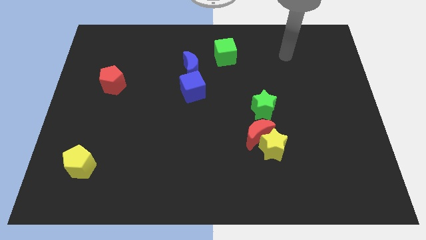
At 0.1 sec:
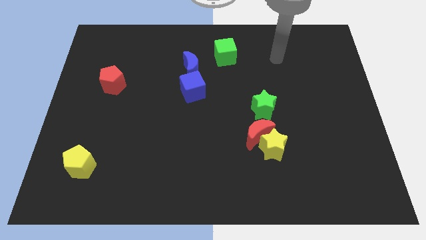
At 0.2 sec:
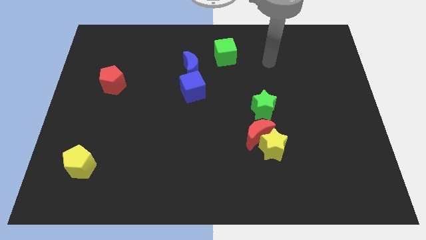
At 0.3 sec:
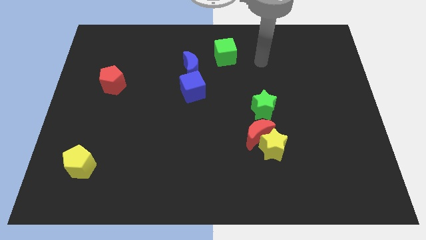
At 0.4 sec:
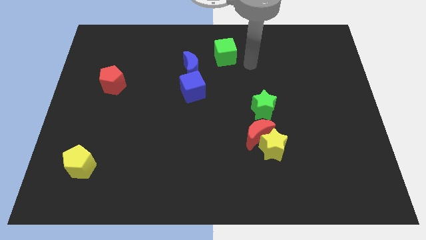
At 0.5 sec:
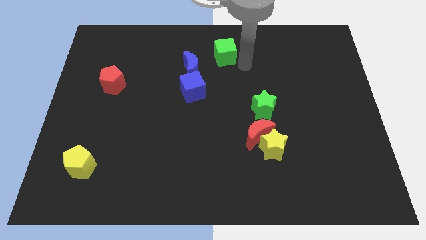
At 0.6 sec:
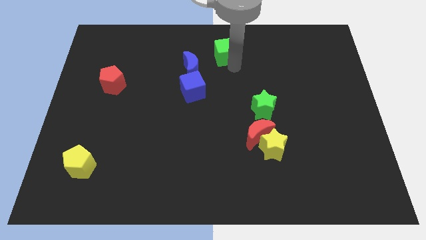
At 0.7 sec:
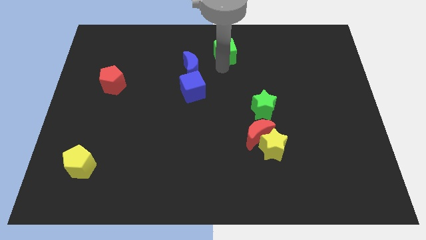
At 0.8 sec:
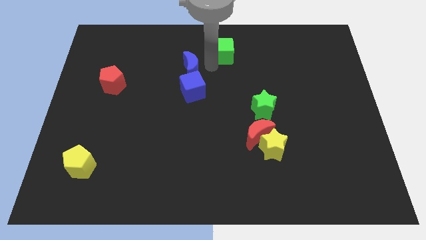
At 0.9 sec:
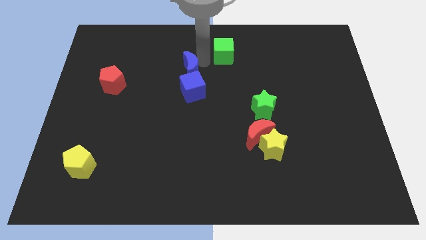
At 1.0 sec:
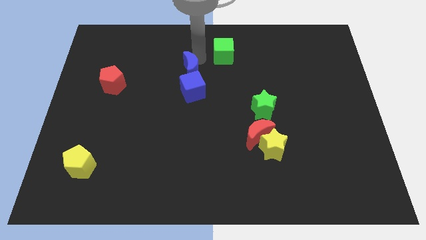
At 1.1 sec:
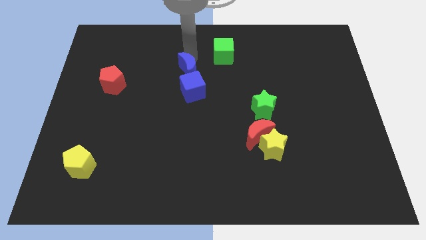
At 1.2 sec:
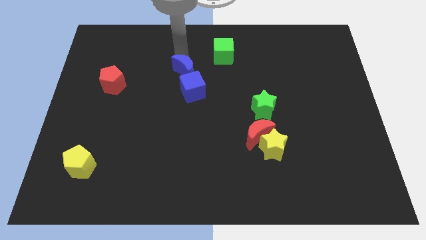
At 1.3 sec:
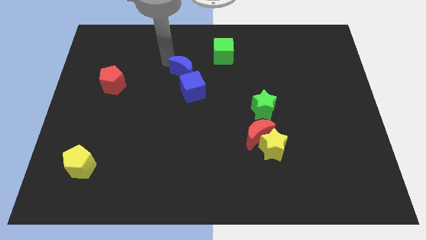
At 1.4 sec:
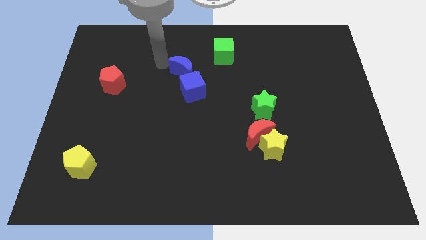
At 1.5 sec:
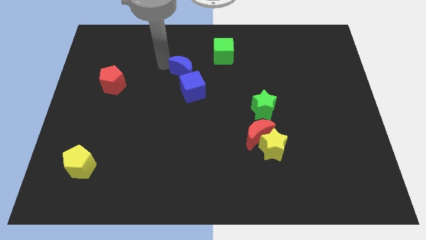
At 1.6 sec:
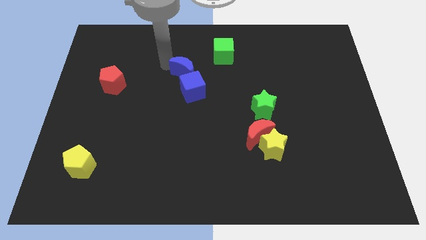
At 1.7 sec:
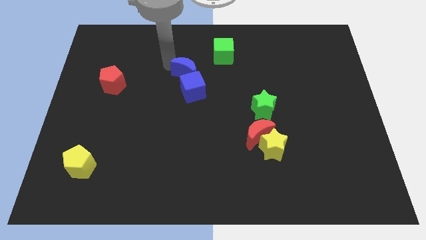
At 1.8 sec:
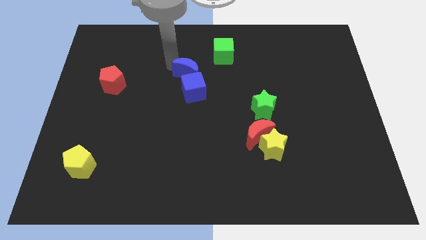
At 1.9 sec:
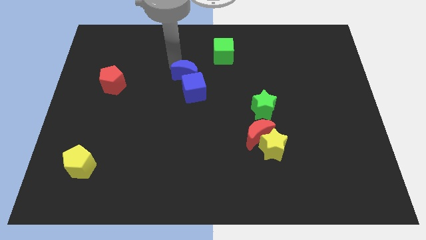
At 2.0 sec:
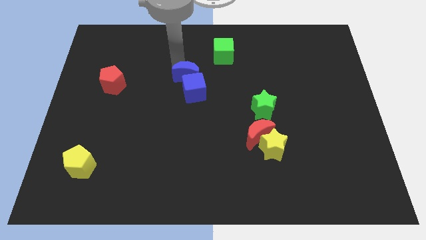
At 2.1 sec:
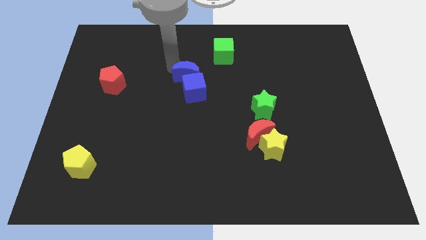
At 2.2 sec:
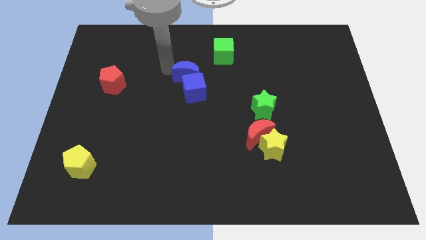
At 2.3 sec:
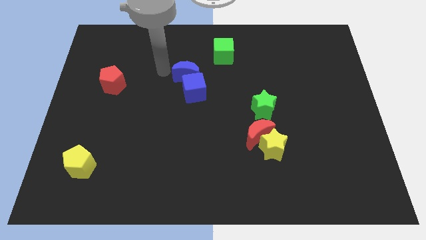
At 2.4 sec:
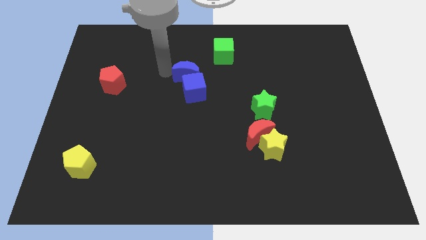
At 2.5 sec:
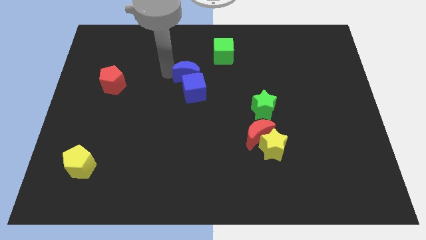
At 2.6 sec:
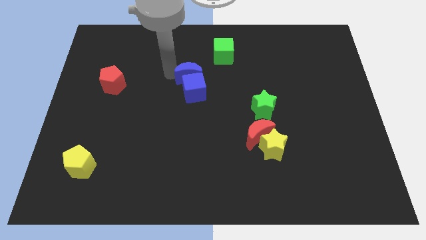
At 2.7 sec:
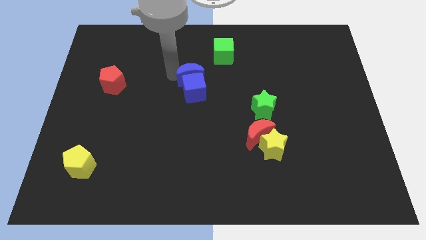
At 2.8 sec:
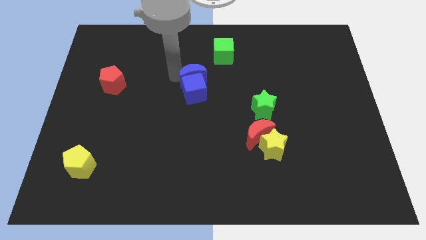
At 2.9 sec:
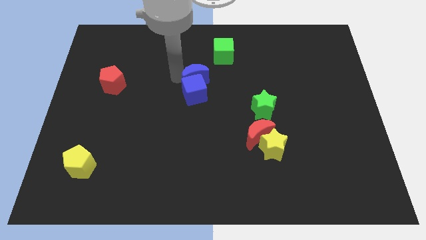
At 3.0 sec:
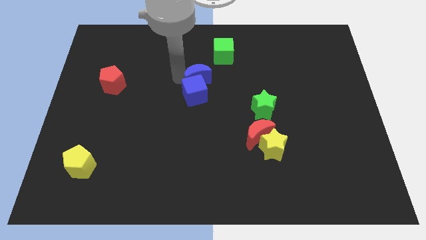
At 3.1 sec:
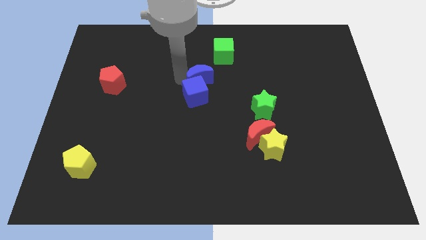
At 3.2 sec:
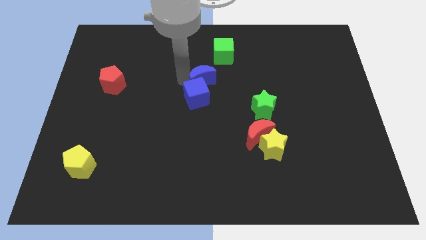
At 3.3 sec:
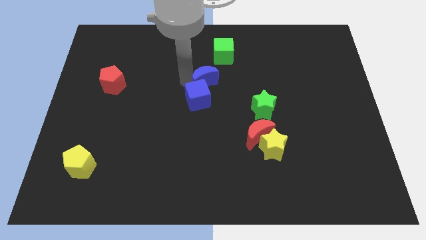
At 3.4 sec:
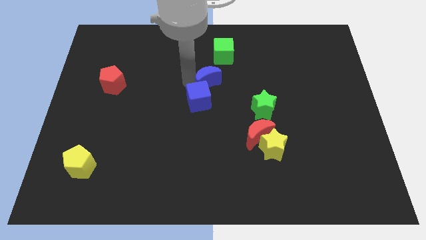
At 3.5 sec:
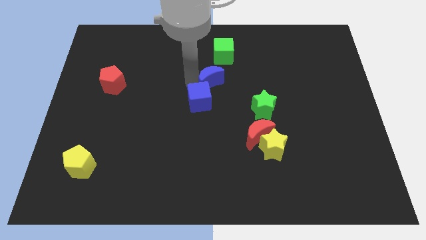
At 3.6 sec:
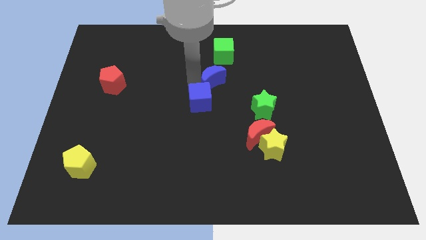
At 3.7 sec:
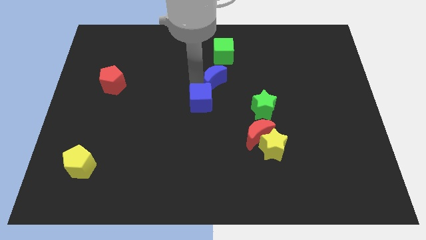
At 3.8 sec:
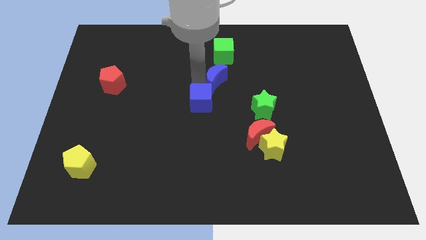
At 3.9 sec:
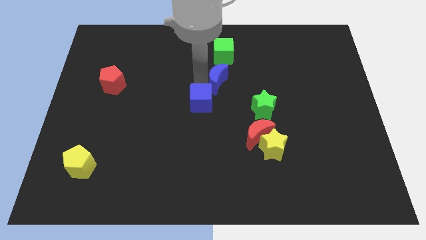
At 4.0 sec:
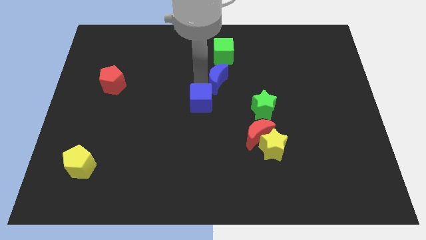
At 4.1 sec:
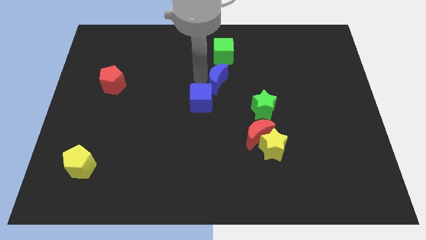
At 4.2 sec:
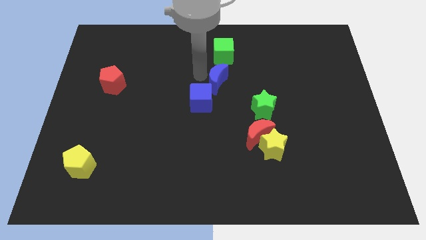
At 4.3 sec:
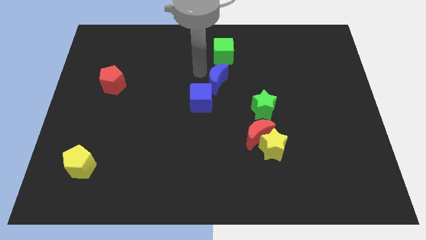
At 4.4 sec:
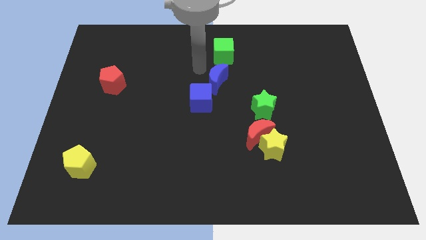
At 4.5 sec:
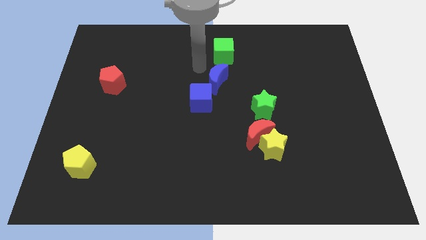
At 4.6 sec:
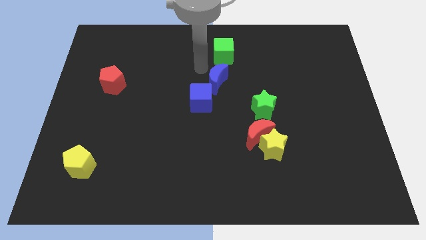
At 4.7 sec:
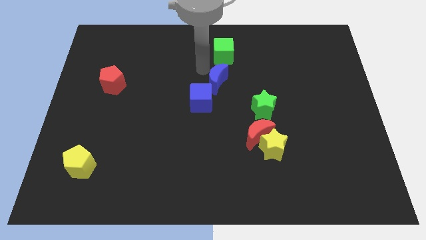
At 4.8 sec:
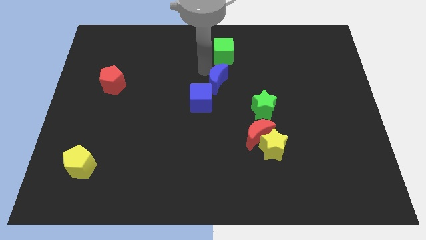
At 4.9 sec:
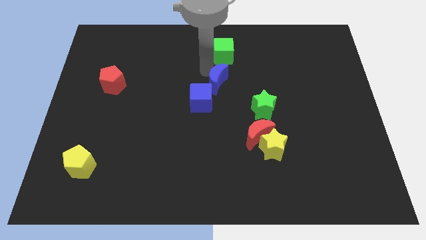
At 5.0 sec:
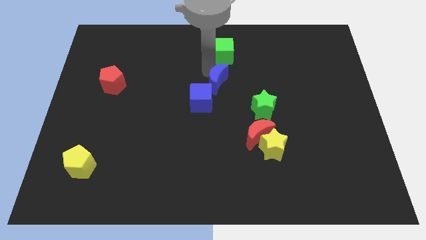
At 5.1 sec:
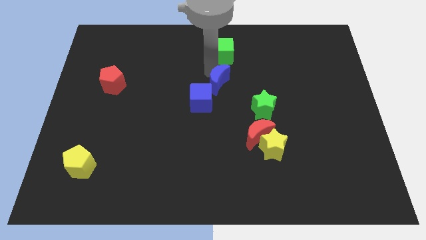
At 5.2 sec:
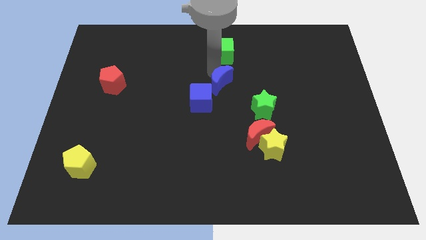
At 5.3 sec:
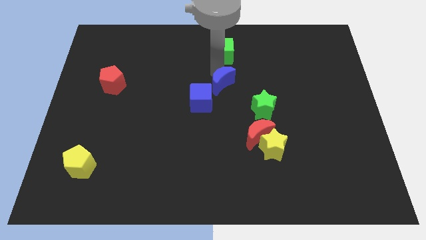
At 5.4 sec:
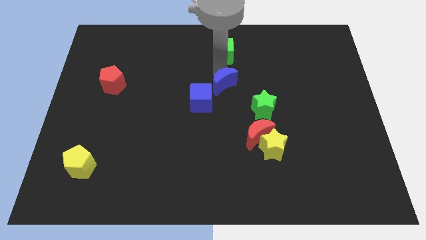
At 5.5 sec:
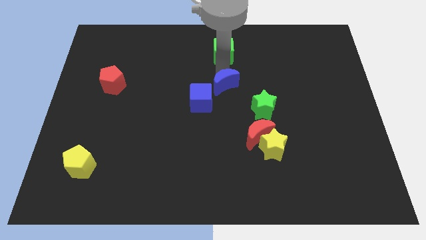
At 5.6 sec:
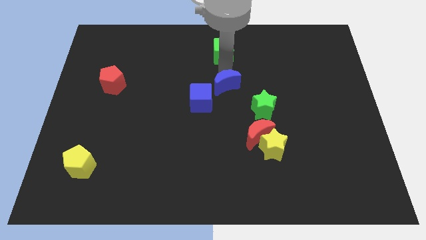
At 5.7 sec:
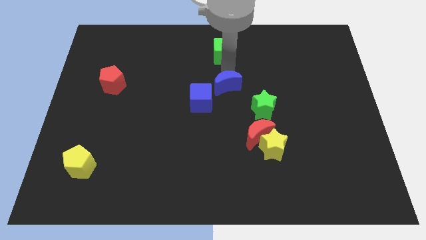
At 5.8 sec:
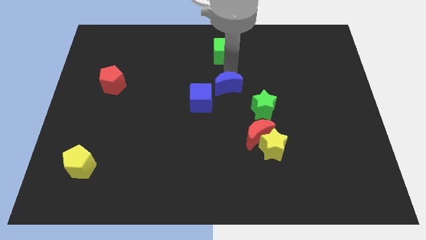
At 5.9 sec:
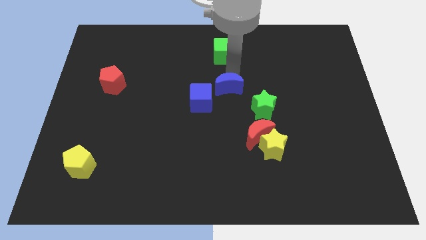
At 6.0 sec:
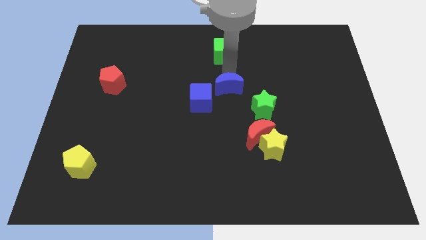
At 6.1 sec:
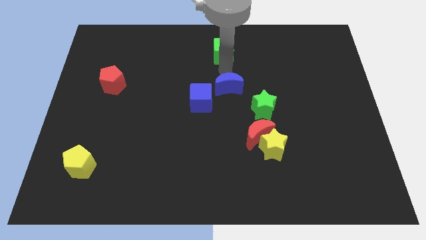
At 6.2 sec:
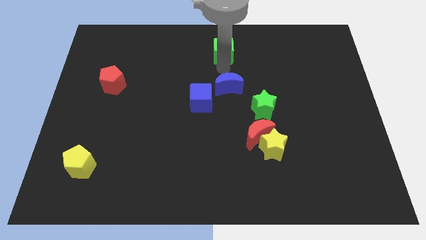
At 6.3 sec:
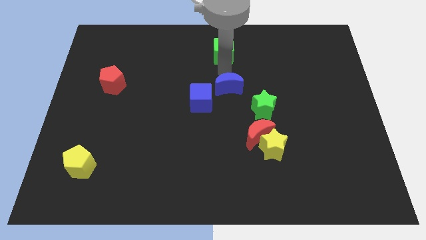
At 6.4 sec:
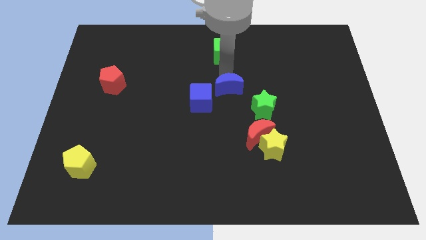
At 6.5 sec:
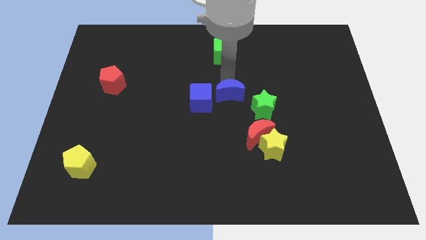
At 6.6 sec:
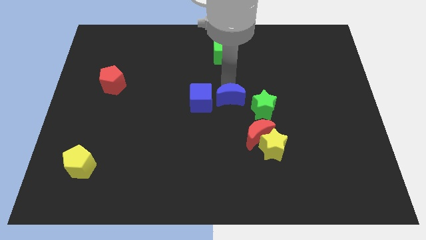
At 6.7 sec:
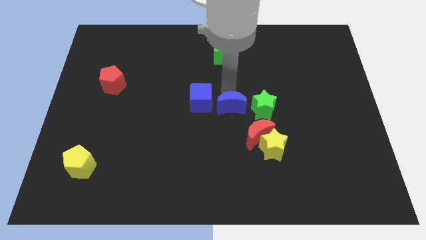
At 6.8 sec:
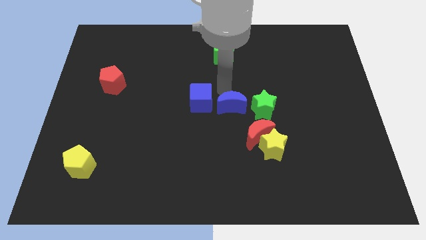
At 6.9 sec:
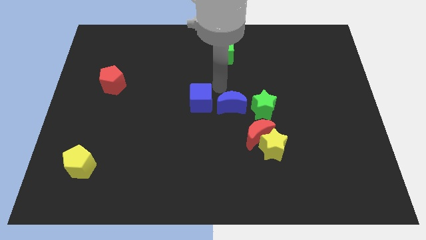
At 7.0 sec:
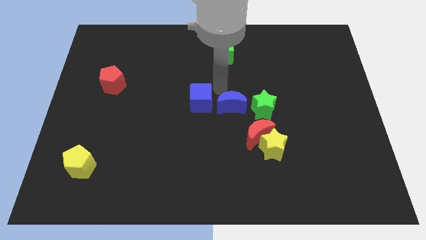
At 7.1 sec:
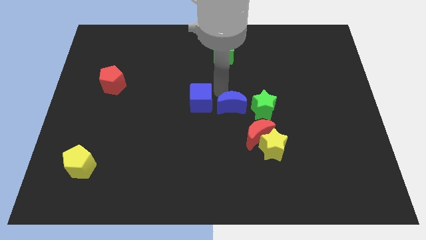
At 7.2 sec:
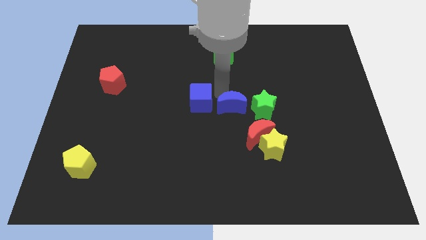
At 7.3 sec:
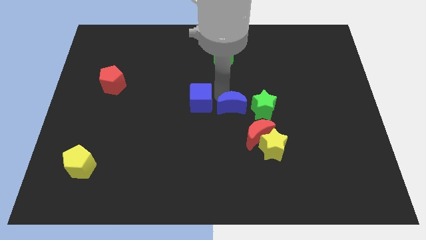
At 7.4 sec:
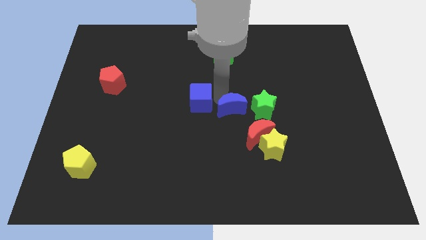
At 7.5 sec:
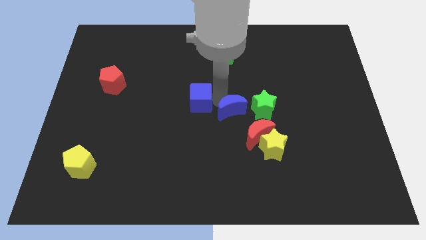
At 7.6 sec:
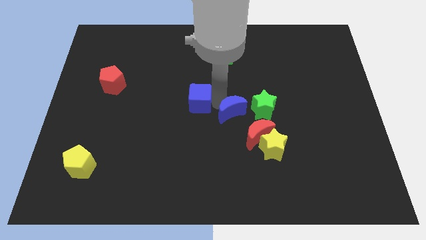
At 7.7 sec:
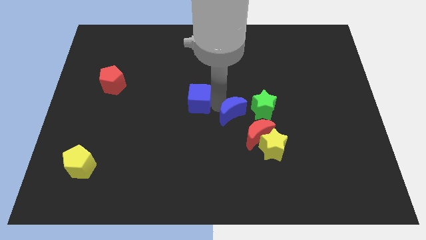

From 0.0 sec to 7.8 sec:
slide the blue moon to the top left of the yellow star
